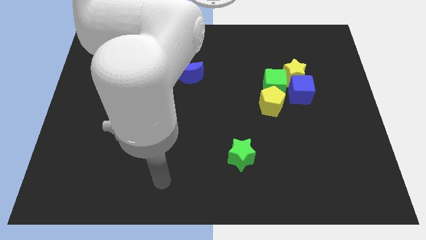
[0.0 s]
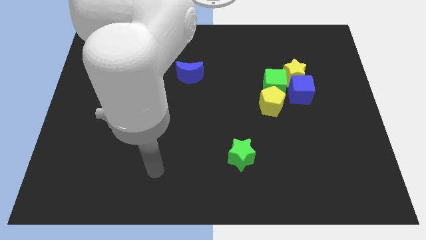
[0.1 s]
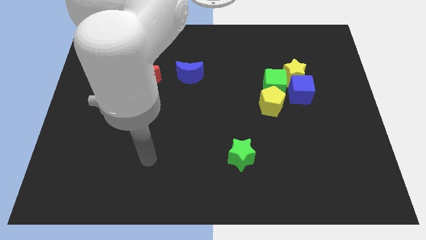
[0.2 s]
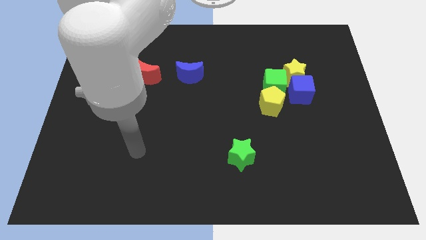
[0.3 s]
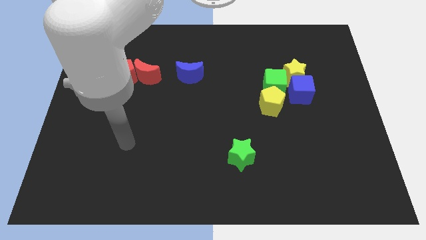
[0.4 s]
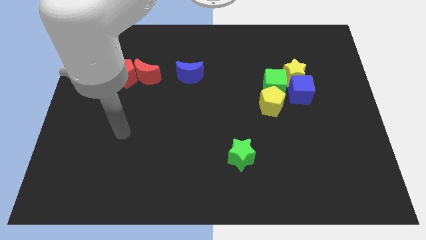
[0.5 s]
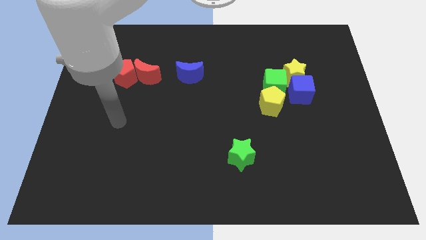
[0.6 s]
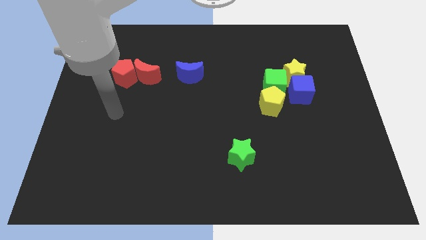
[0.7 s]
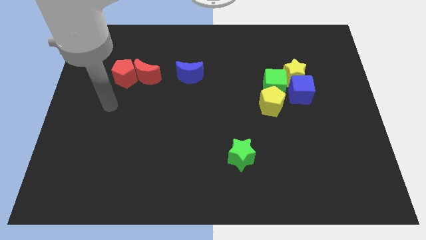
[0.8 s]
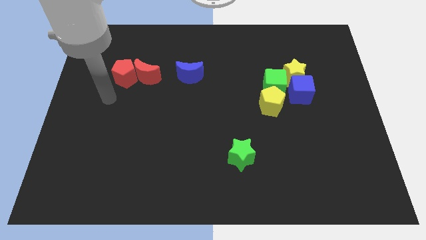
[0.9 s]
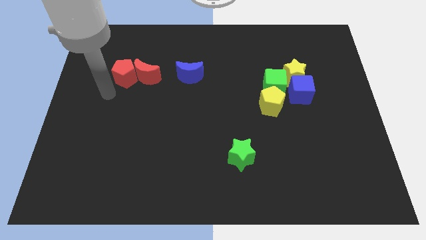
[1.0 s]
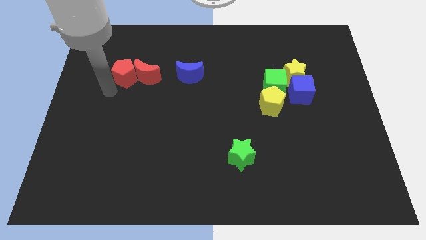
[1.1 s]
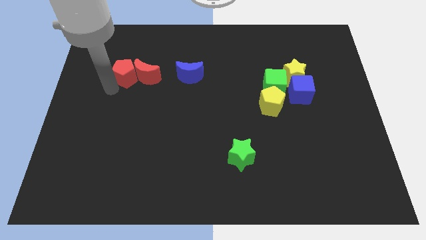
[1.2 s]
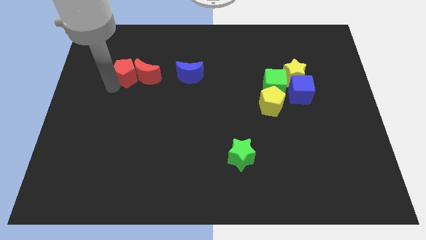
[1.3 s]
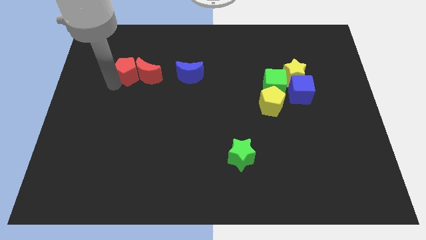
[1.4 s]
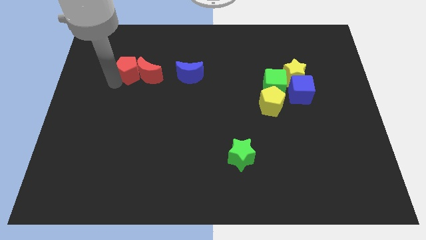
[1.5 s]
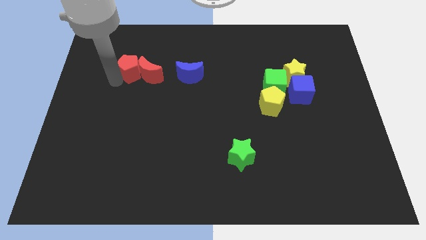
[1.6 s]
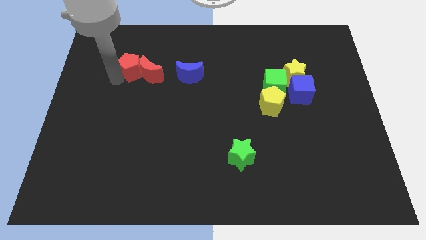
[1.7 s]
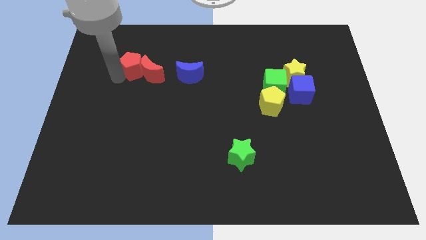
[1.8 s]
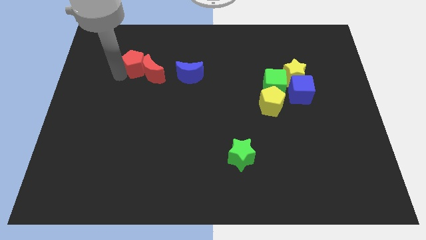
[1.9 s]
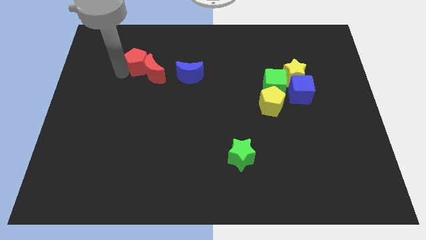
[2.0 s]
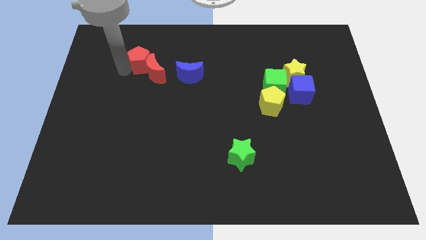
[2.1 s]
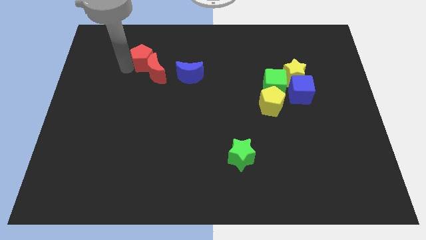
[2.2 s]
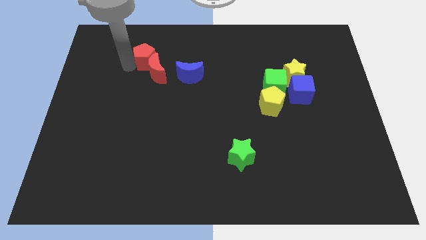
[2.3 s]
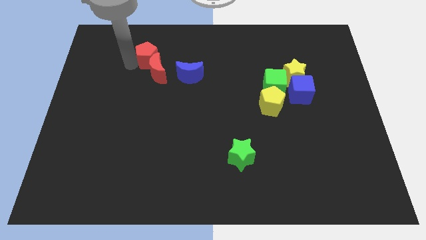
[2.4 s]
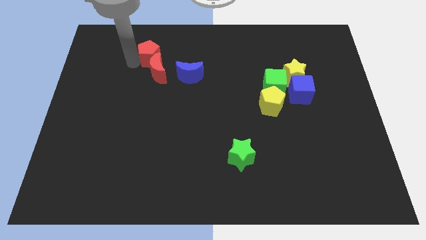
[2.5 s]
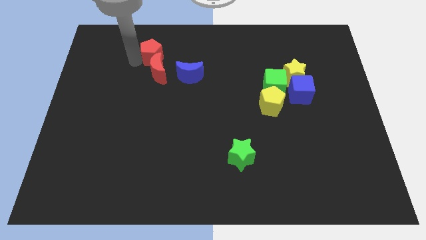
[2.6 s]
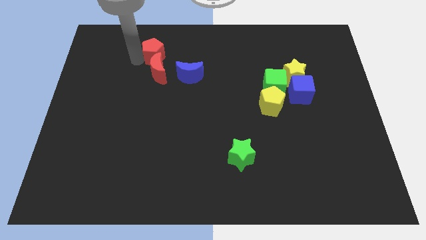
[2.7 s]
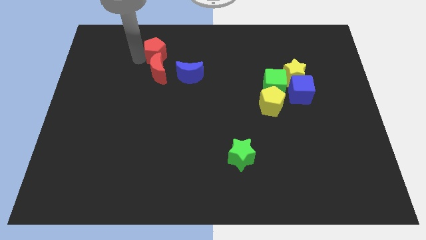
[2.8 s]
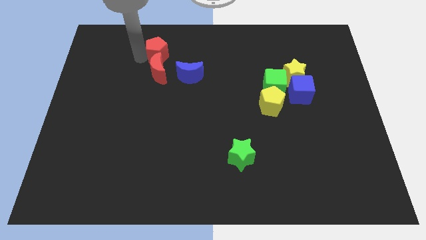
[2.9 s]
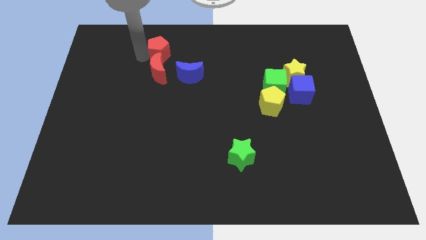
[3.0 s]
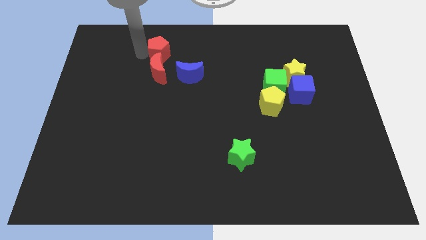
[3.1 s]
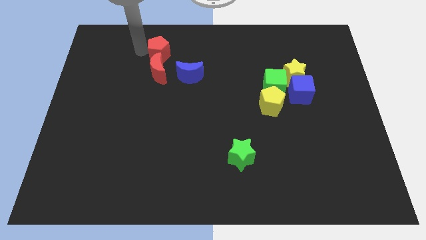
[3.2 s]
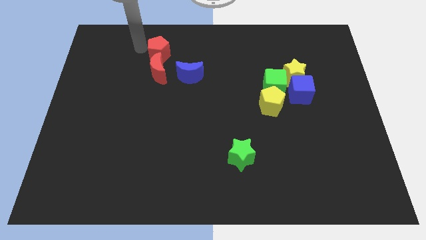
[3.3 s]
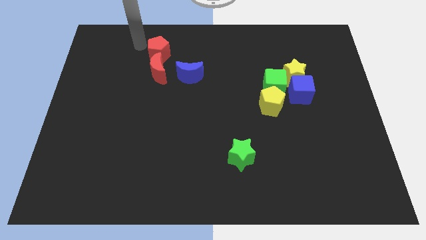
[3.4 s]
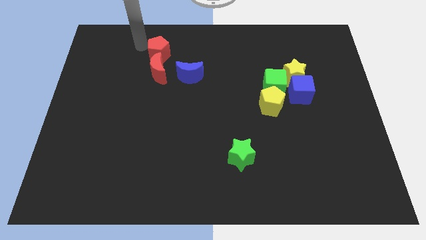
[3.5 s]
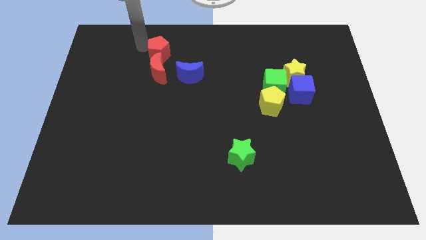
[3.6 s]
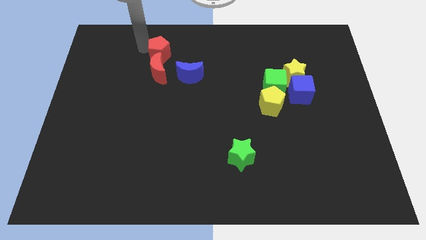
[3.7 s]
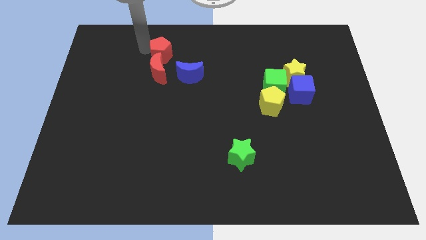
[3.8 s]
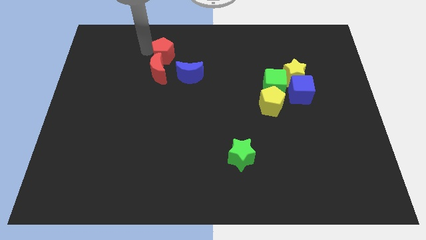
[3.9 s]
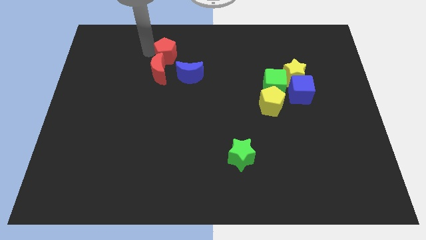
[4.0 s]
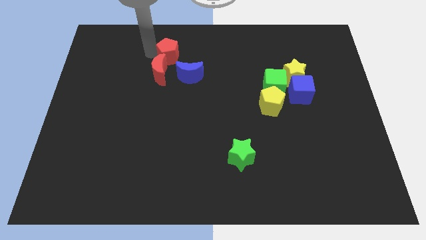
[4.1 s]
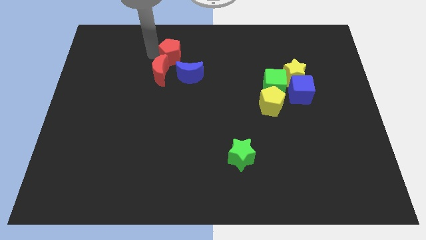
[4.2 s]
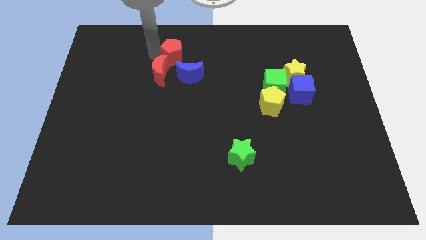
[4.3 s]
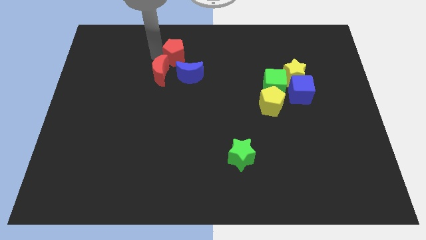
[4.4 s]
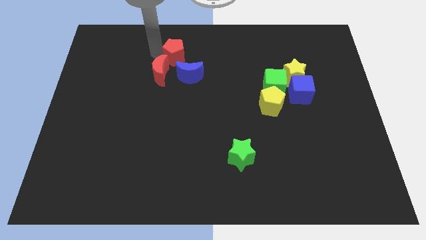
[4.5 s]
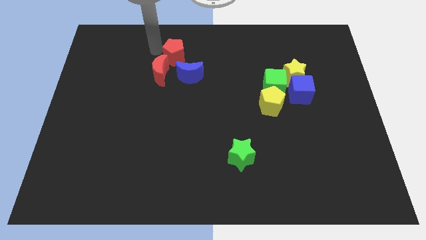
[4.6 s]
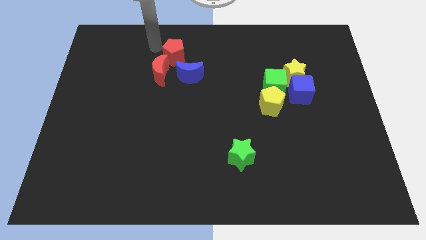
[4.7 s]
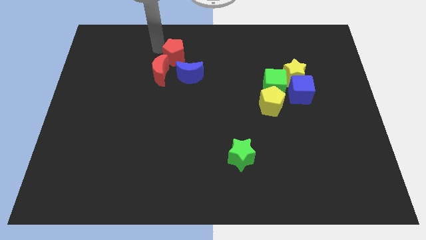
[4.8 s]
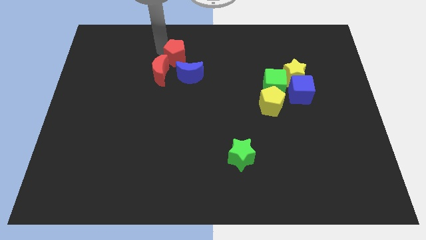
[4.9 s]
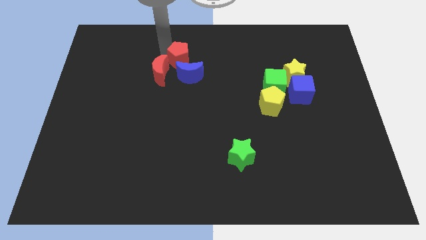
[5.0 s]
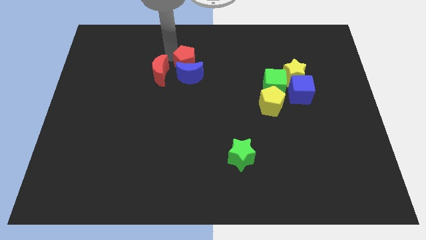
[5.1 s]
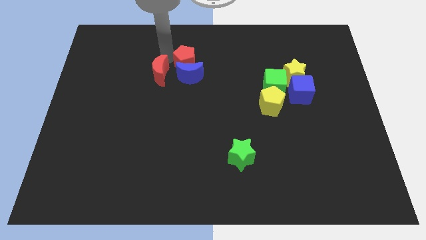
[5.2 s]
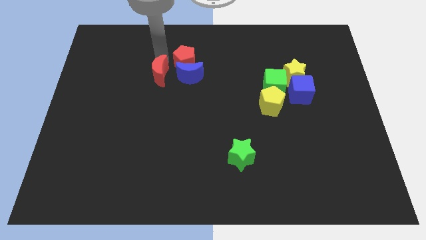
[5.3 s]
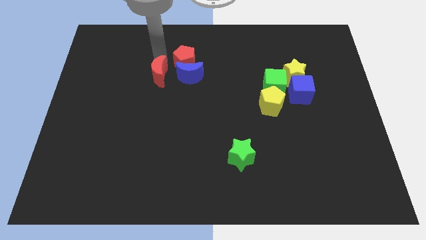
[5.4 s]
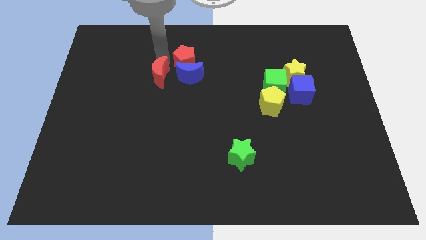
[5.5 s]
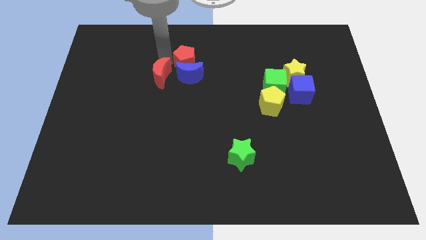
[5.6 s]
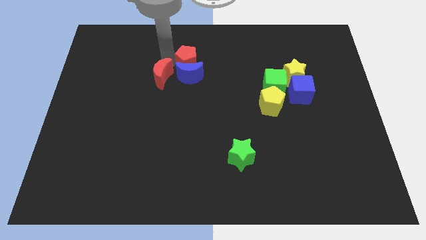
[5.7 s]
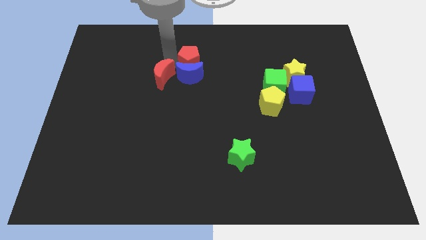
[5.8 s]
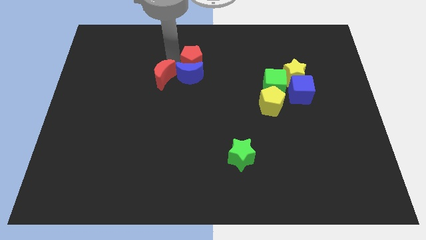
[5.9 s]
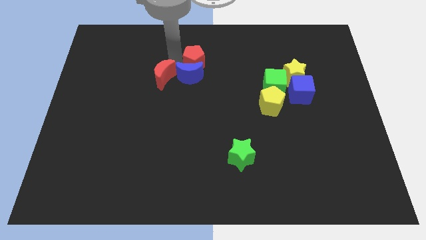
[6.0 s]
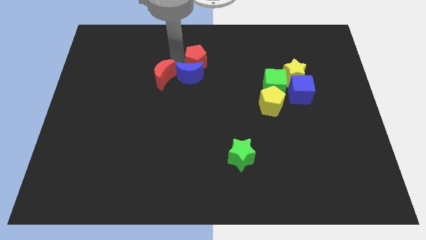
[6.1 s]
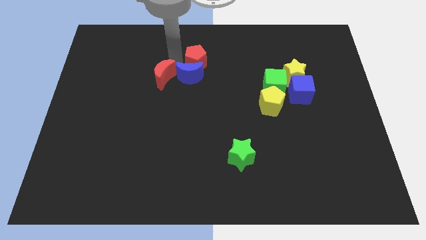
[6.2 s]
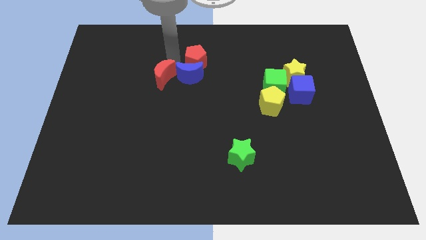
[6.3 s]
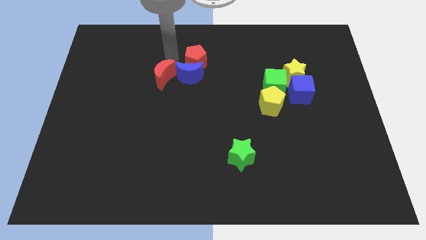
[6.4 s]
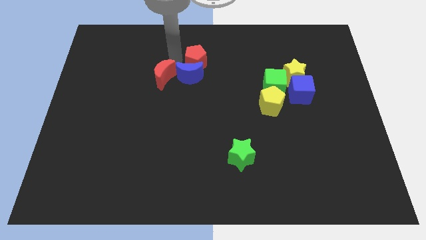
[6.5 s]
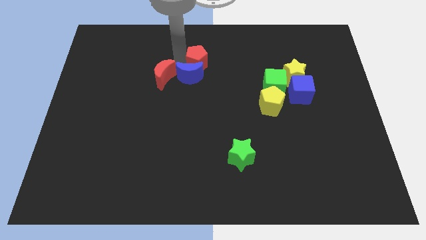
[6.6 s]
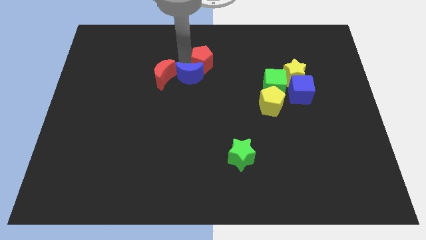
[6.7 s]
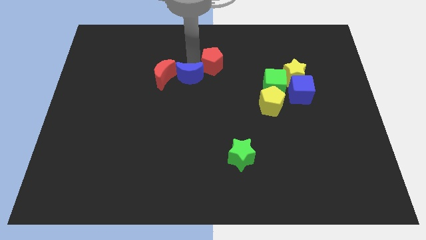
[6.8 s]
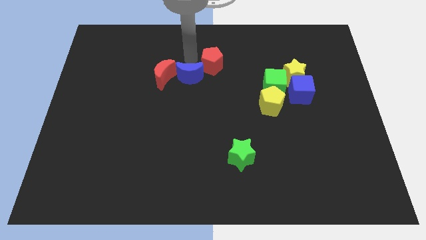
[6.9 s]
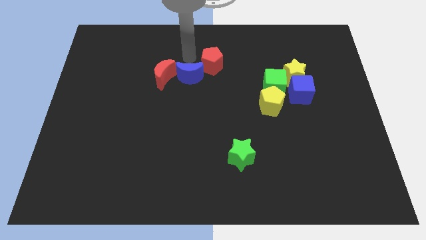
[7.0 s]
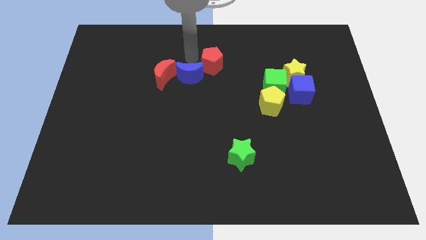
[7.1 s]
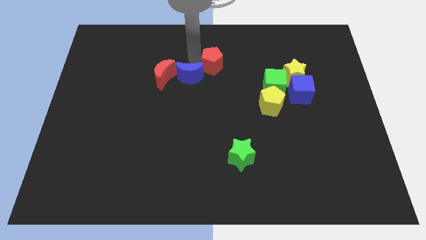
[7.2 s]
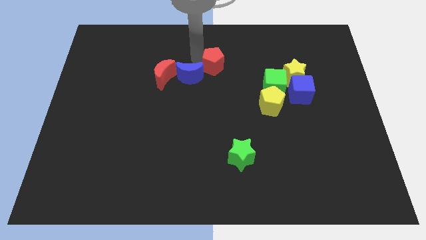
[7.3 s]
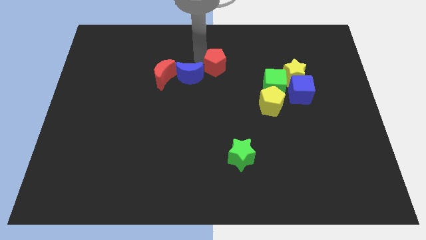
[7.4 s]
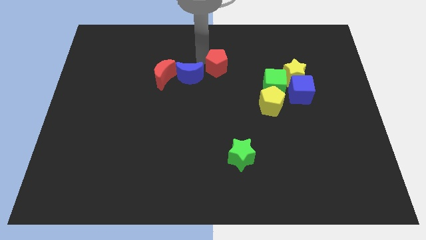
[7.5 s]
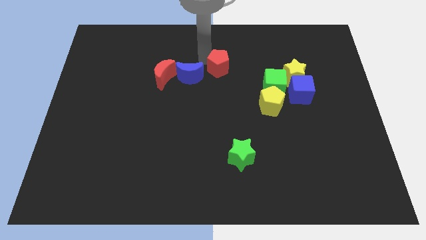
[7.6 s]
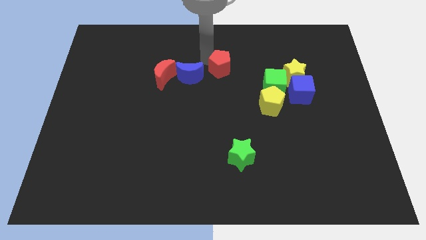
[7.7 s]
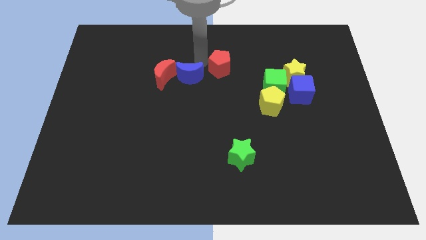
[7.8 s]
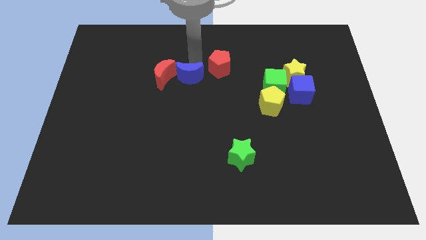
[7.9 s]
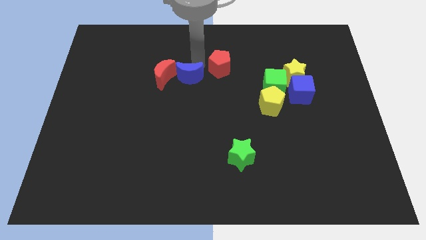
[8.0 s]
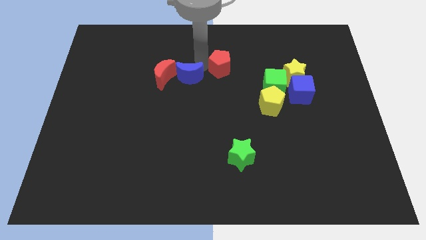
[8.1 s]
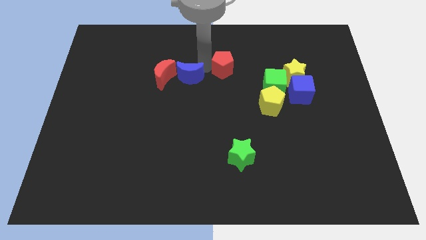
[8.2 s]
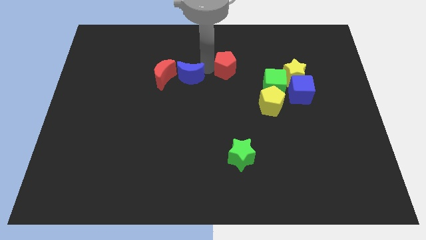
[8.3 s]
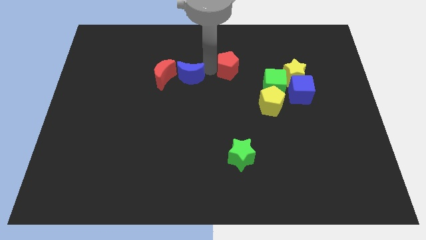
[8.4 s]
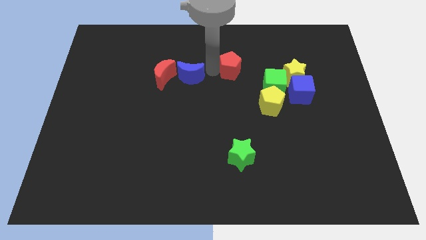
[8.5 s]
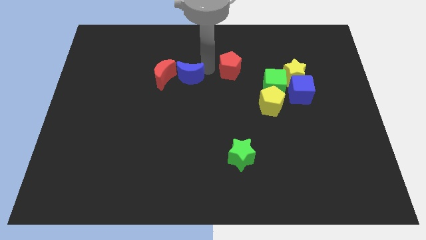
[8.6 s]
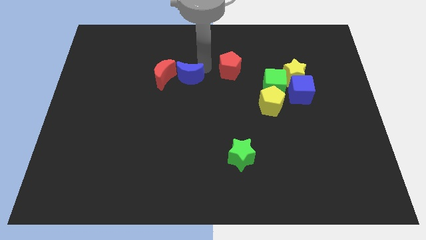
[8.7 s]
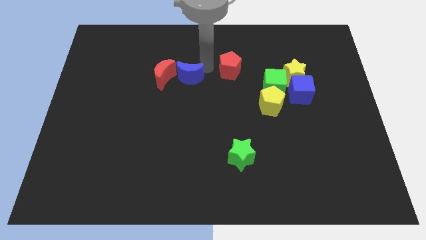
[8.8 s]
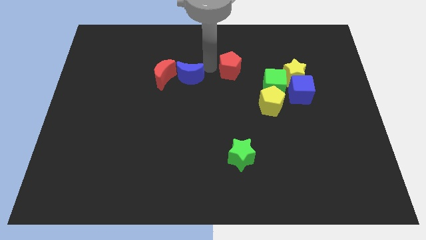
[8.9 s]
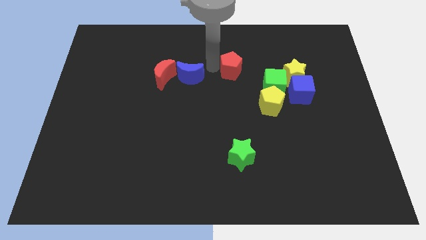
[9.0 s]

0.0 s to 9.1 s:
move the red pentagon diagonally up and to the left of the green cube
